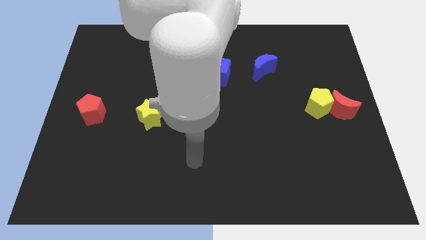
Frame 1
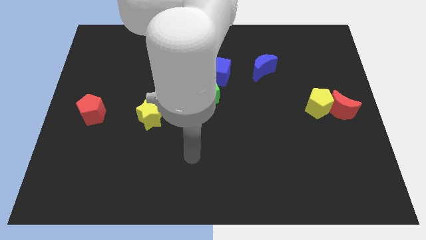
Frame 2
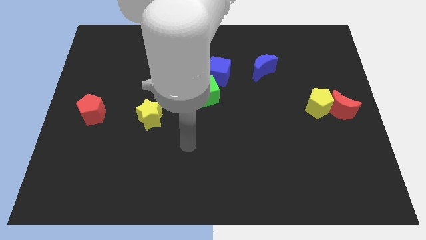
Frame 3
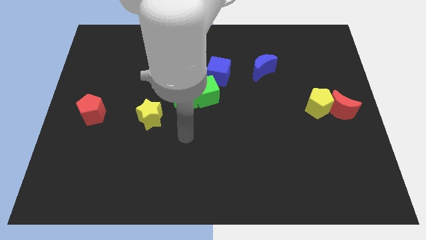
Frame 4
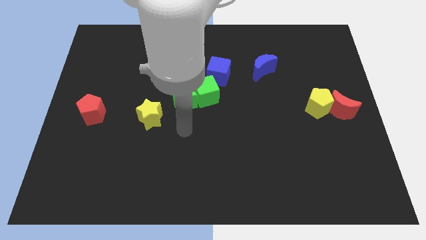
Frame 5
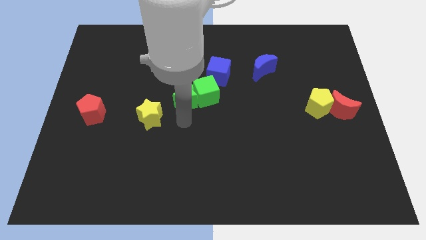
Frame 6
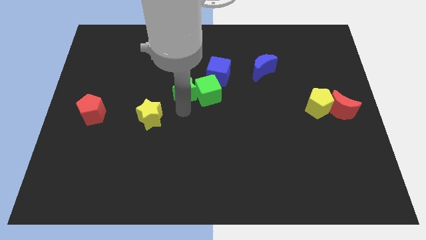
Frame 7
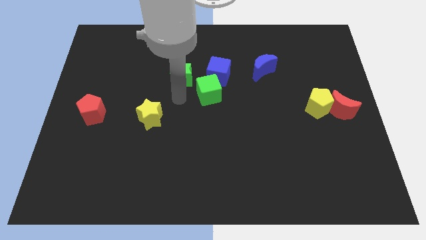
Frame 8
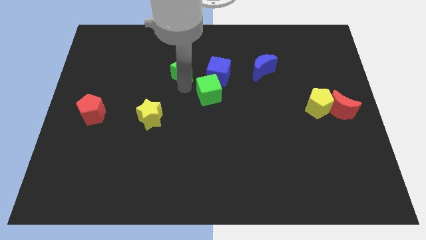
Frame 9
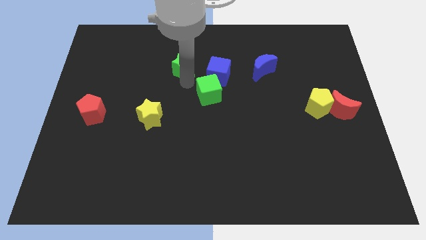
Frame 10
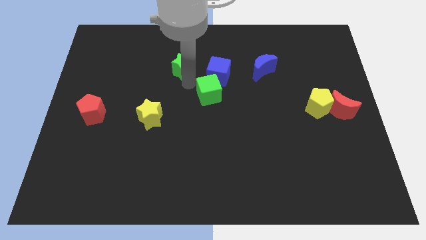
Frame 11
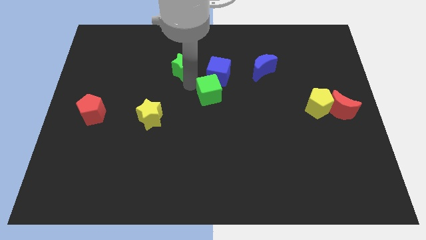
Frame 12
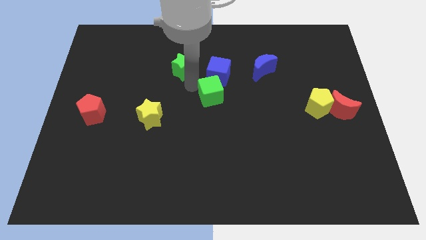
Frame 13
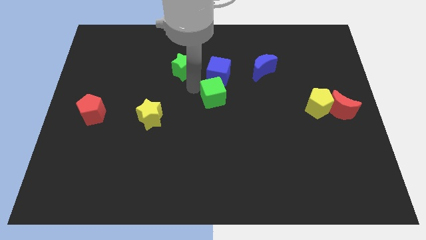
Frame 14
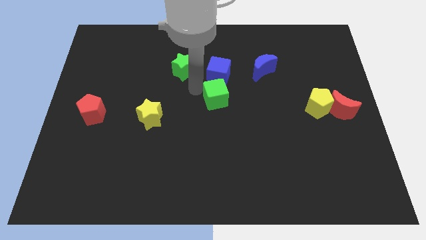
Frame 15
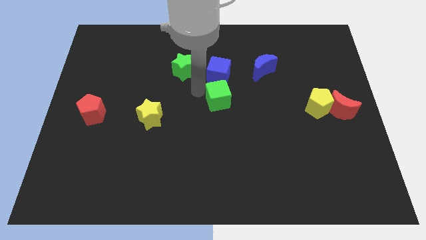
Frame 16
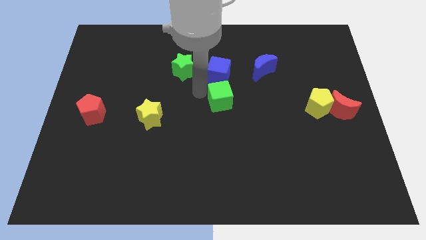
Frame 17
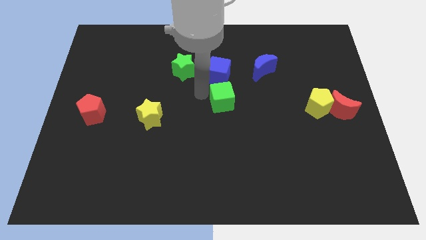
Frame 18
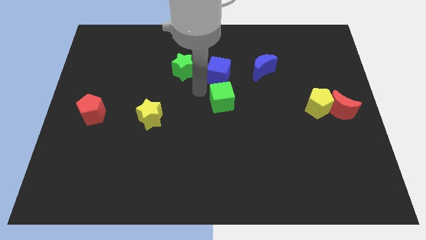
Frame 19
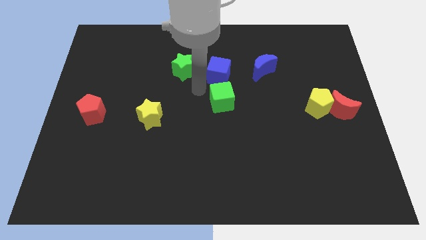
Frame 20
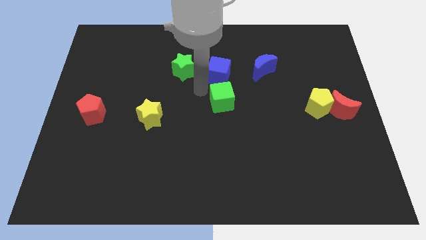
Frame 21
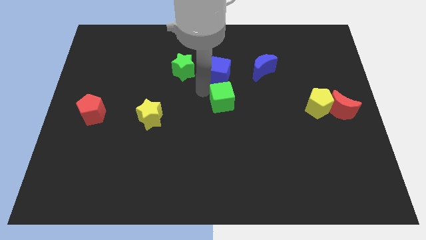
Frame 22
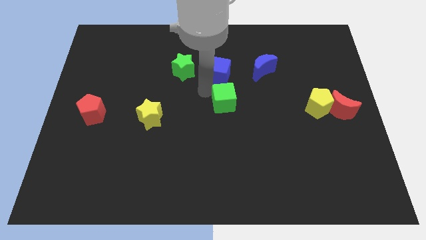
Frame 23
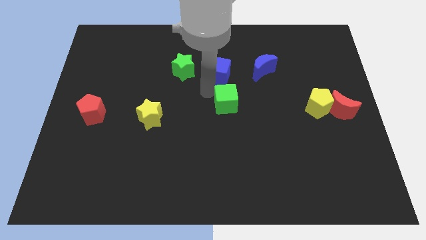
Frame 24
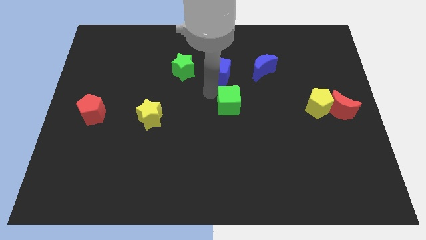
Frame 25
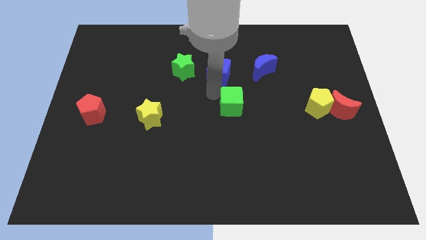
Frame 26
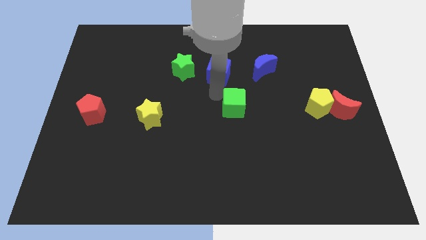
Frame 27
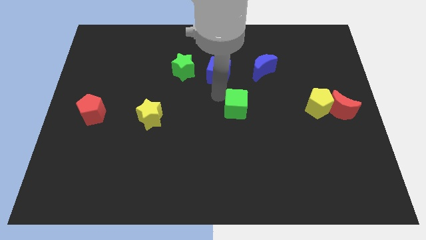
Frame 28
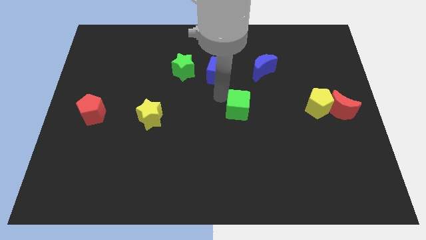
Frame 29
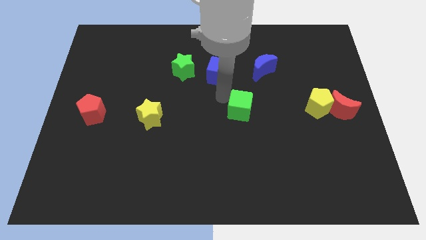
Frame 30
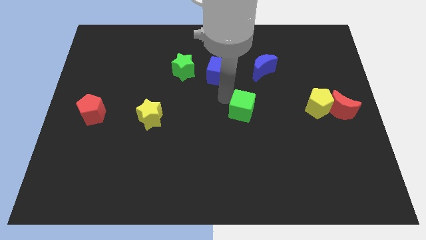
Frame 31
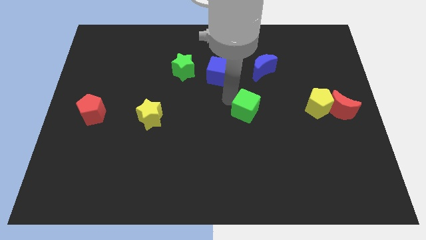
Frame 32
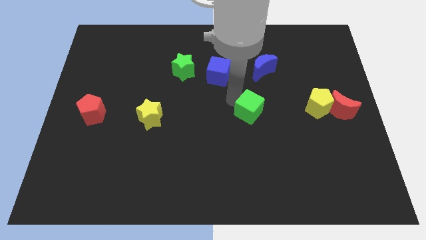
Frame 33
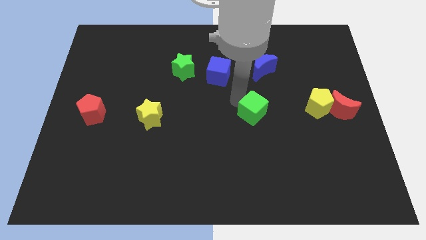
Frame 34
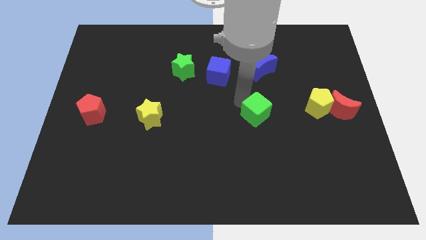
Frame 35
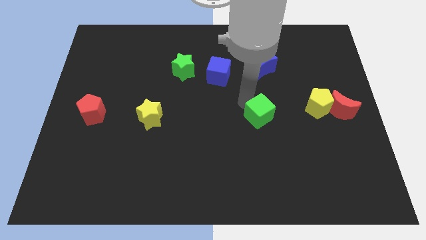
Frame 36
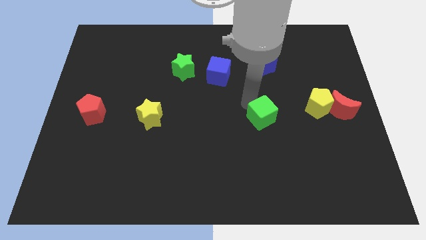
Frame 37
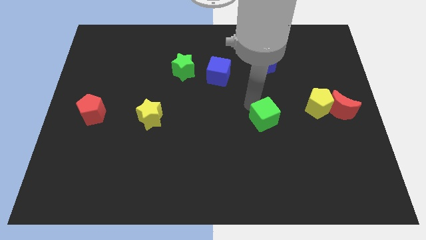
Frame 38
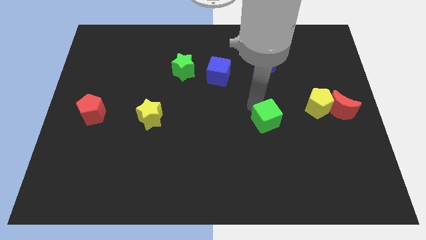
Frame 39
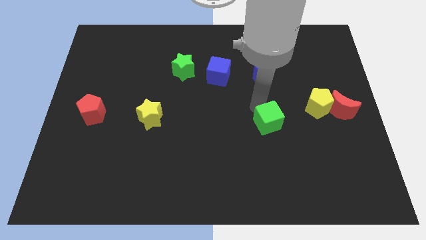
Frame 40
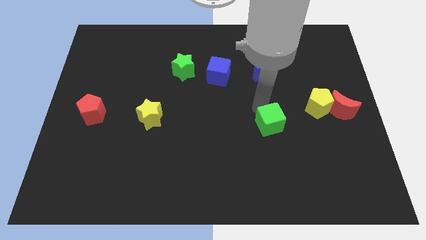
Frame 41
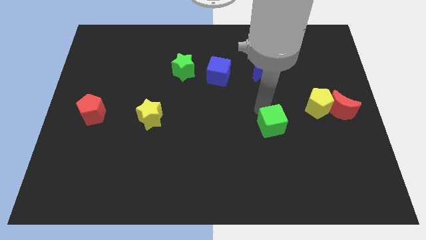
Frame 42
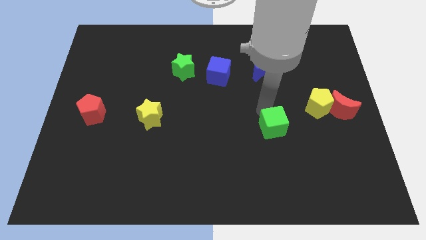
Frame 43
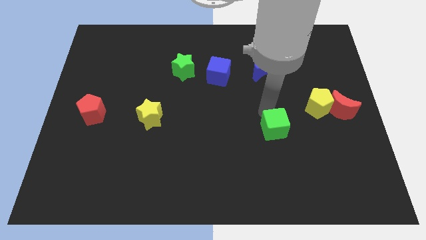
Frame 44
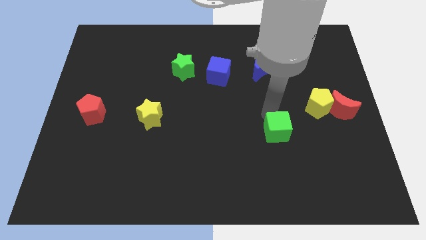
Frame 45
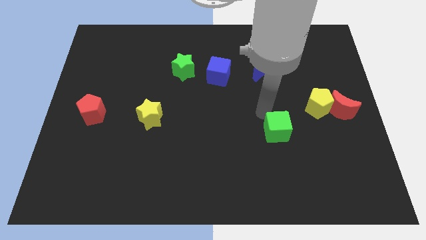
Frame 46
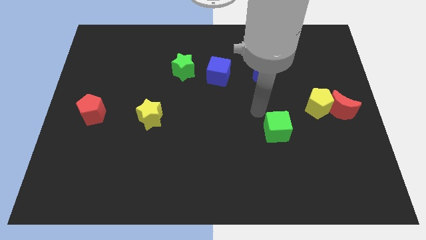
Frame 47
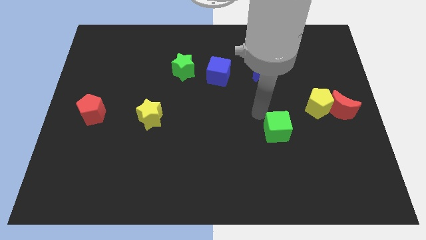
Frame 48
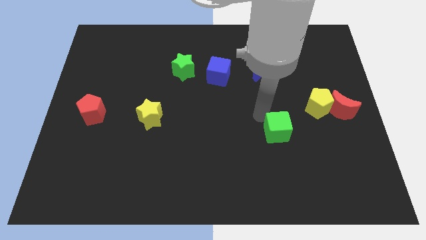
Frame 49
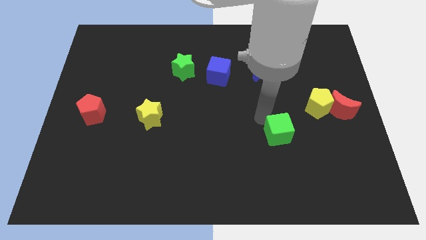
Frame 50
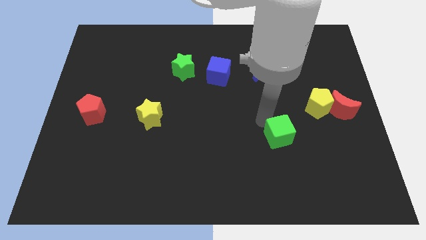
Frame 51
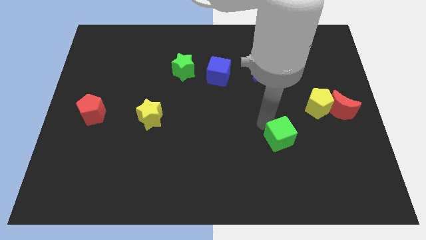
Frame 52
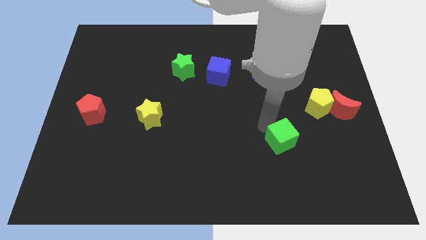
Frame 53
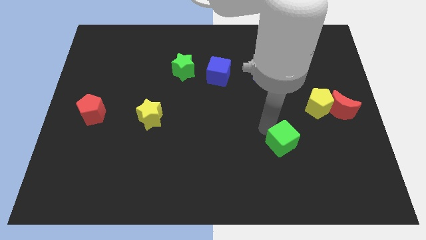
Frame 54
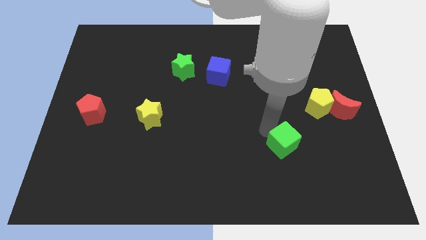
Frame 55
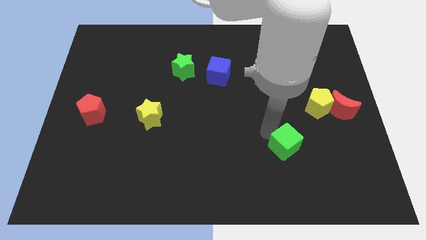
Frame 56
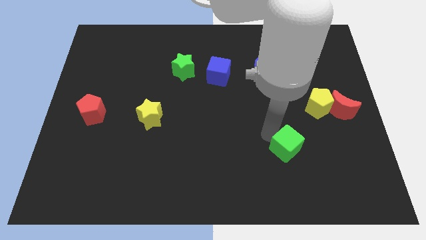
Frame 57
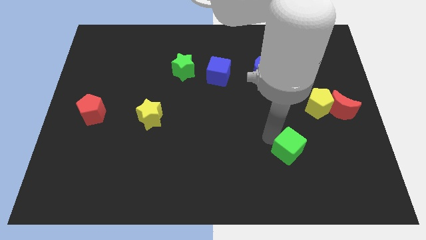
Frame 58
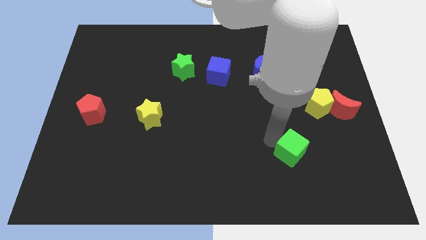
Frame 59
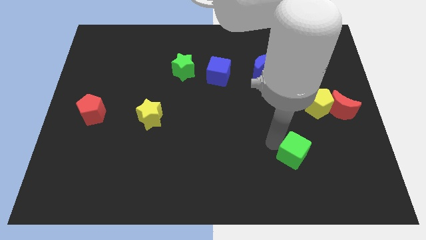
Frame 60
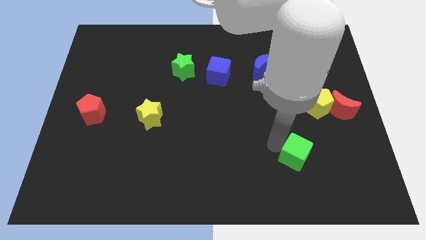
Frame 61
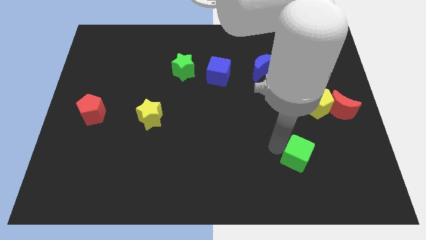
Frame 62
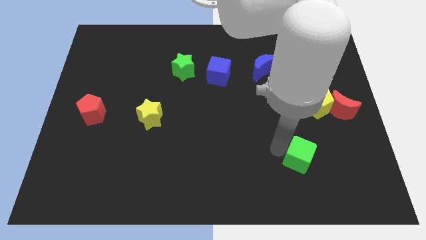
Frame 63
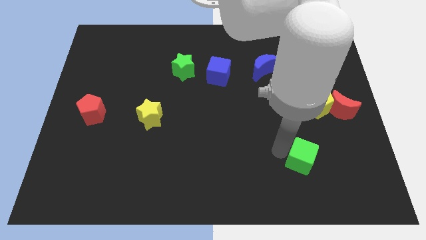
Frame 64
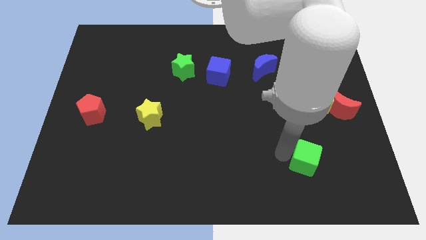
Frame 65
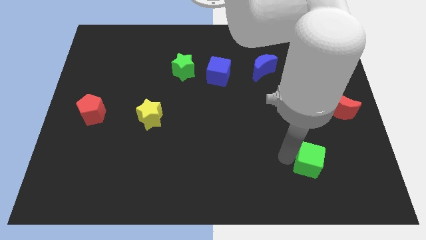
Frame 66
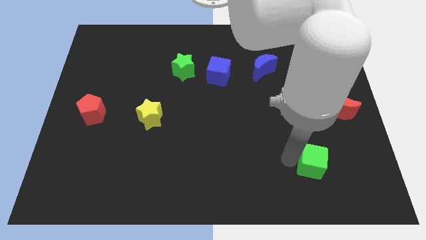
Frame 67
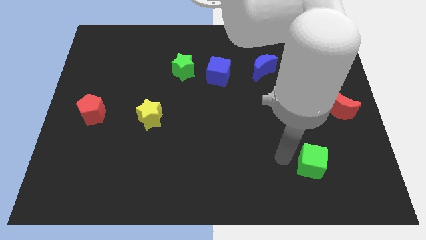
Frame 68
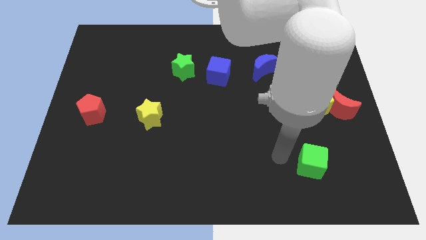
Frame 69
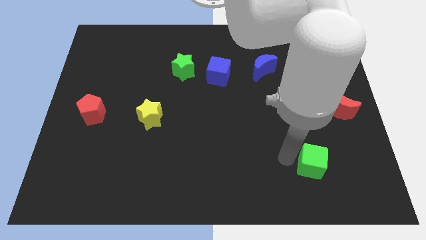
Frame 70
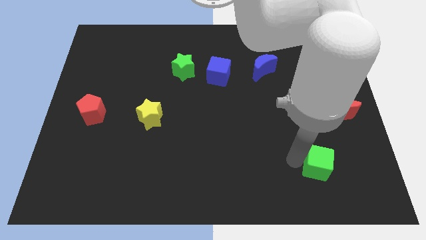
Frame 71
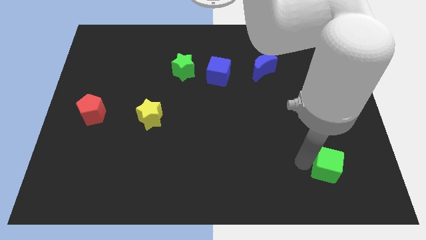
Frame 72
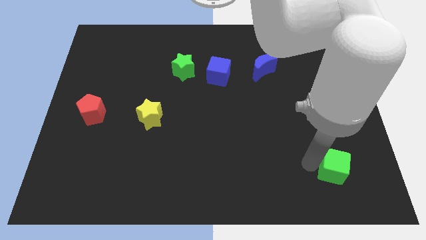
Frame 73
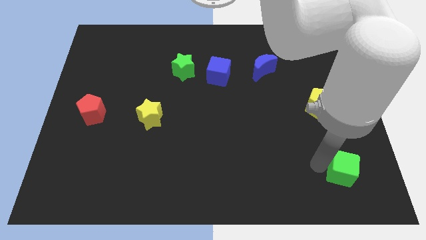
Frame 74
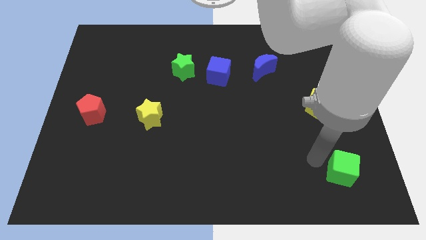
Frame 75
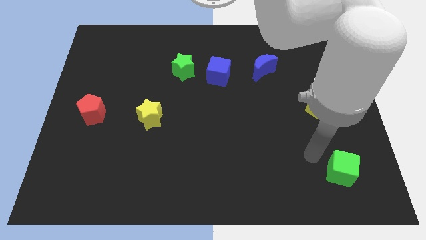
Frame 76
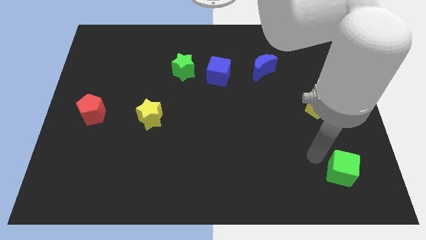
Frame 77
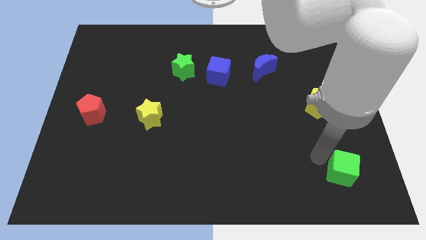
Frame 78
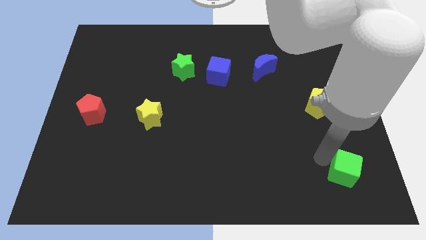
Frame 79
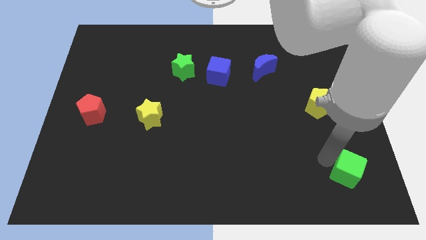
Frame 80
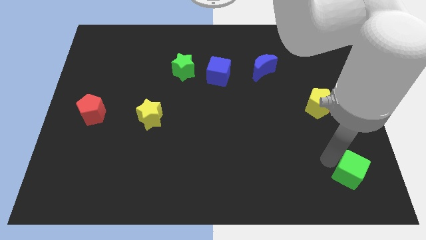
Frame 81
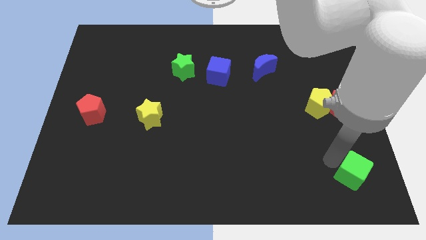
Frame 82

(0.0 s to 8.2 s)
slide the green cube to the bottom right
